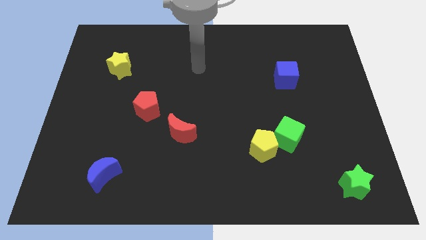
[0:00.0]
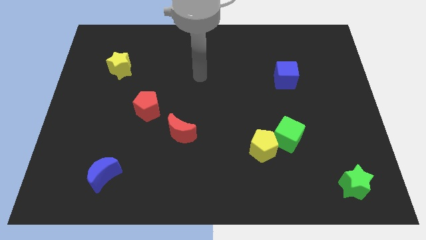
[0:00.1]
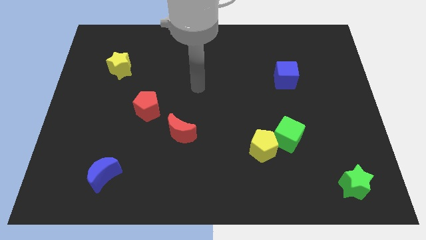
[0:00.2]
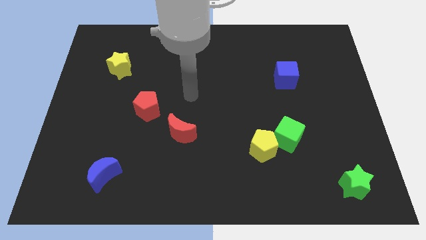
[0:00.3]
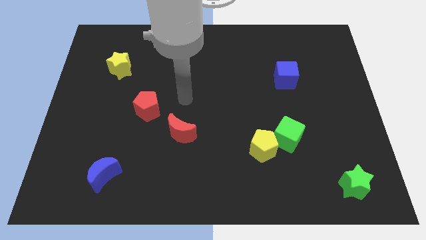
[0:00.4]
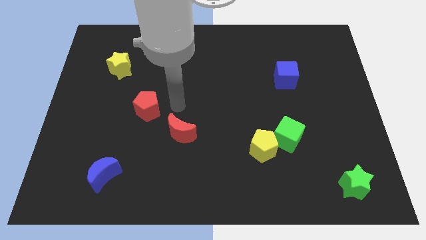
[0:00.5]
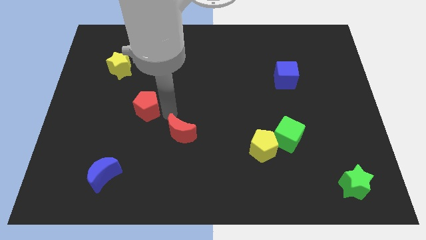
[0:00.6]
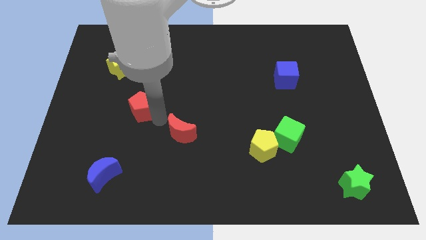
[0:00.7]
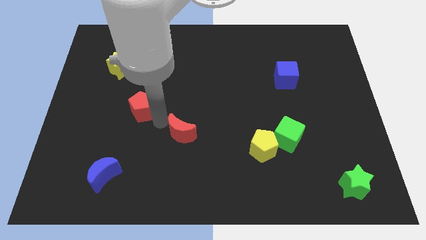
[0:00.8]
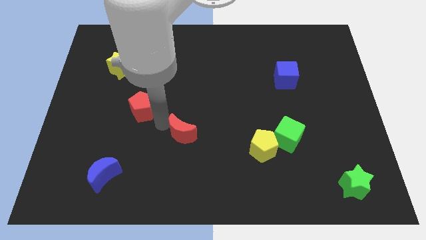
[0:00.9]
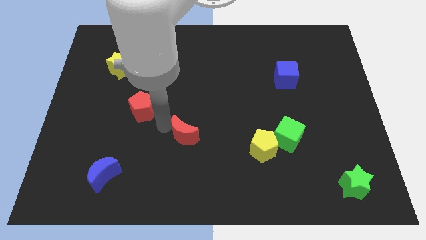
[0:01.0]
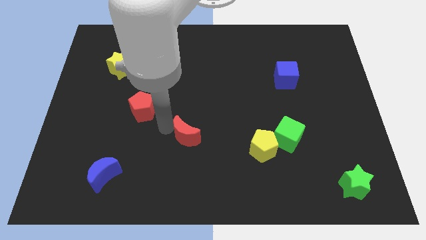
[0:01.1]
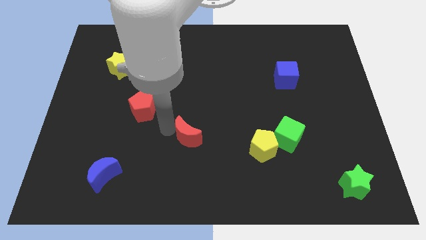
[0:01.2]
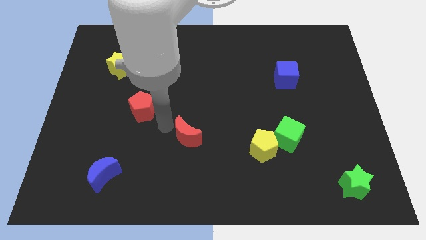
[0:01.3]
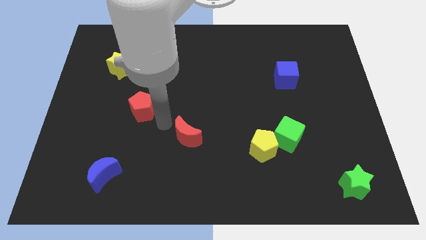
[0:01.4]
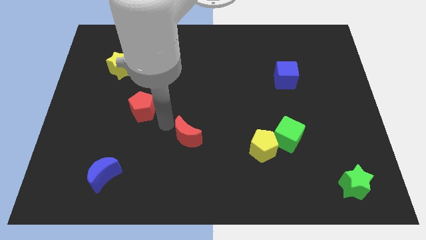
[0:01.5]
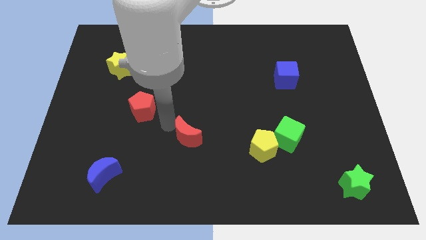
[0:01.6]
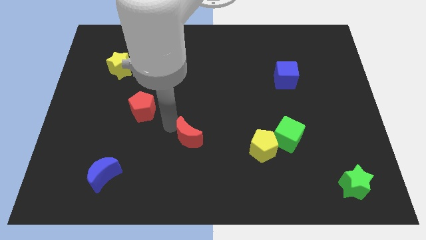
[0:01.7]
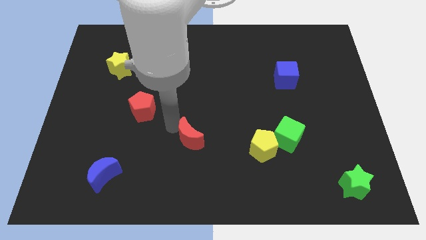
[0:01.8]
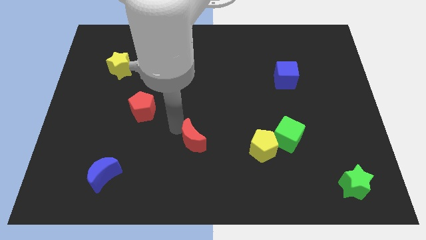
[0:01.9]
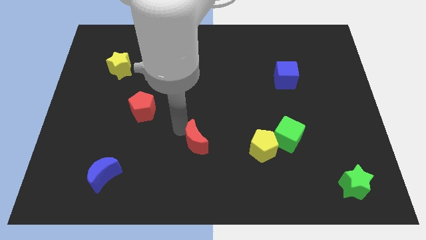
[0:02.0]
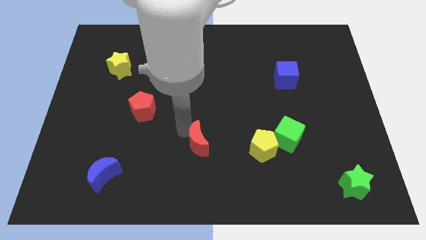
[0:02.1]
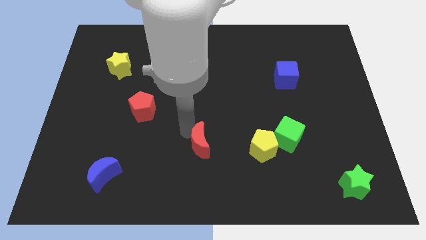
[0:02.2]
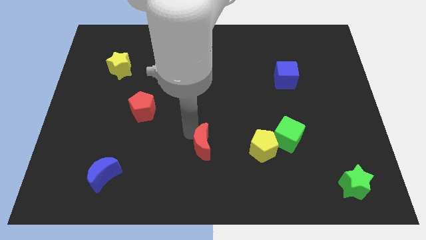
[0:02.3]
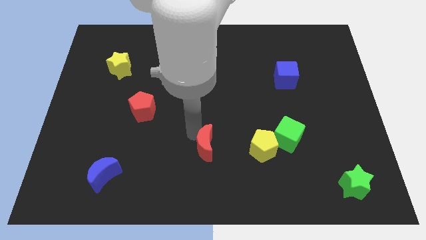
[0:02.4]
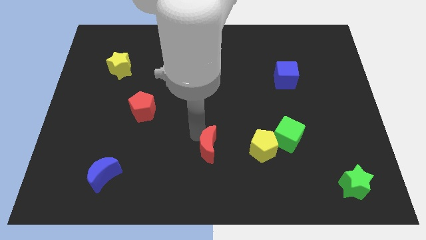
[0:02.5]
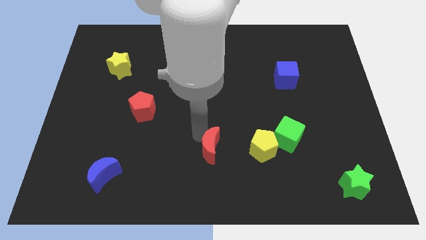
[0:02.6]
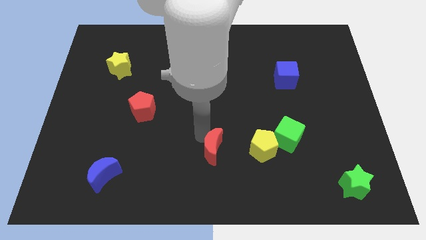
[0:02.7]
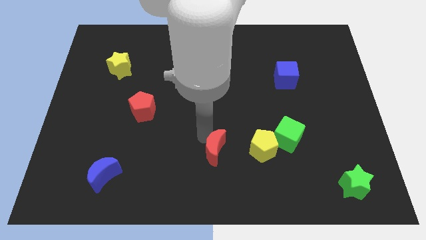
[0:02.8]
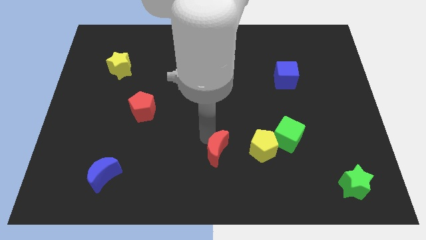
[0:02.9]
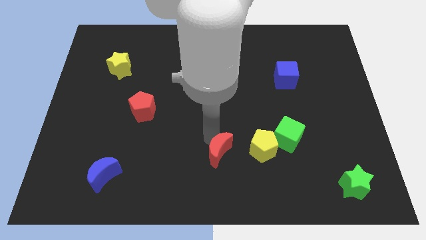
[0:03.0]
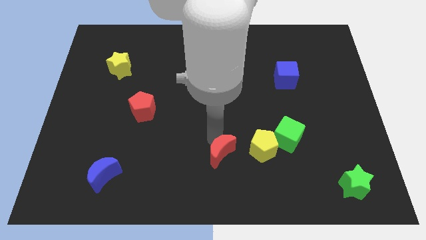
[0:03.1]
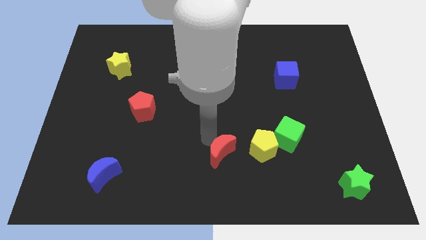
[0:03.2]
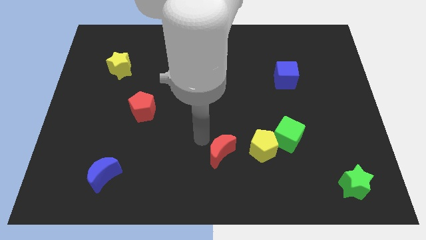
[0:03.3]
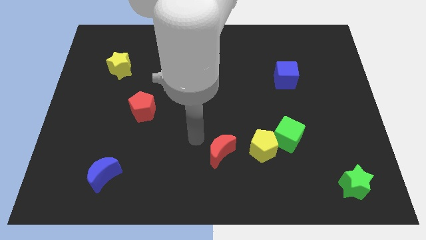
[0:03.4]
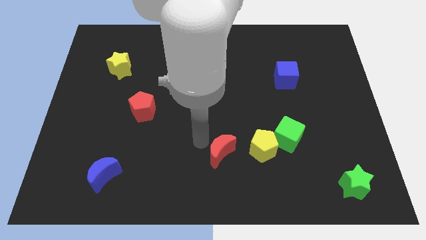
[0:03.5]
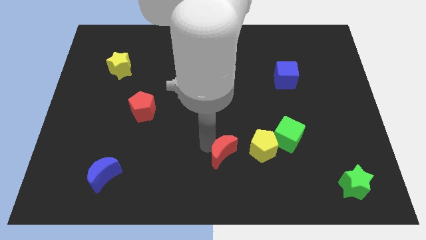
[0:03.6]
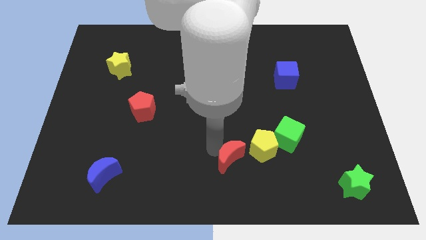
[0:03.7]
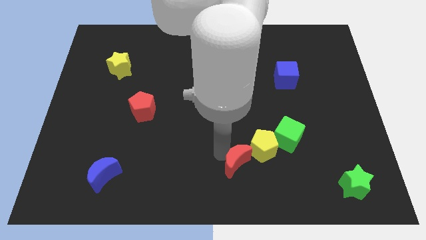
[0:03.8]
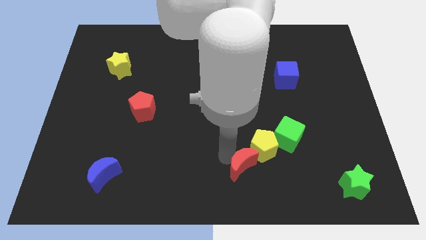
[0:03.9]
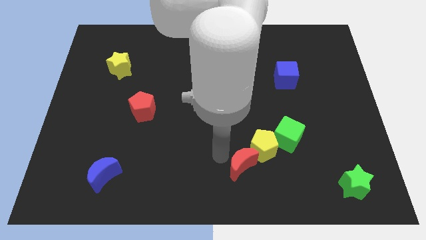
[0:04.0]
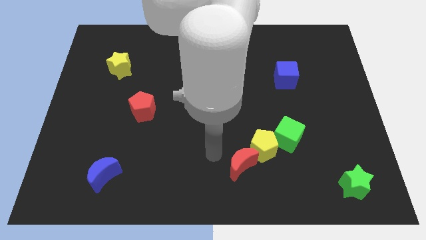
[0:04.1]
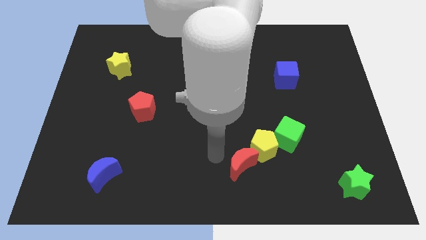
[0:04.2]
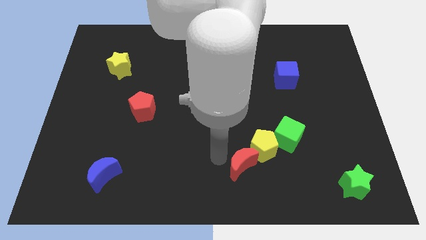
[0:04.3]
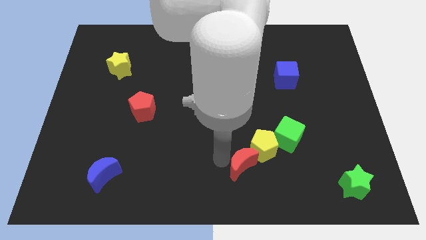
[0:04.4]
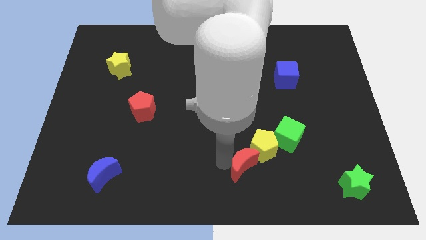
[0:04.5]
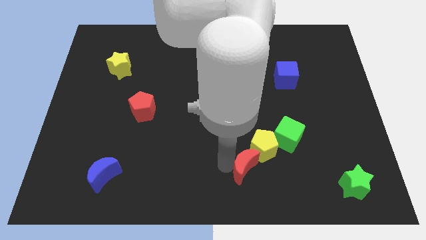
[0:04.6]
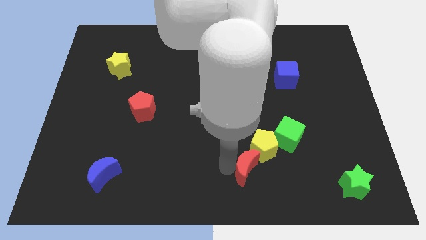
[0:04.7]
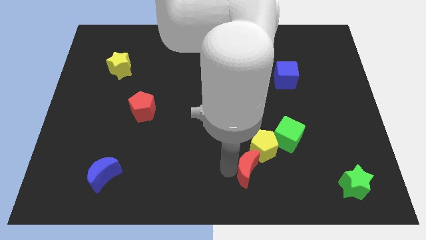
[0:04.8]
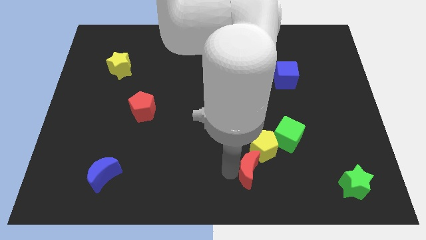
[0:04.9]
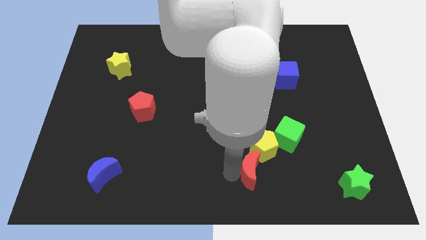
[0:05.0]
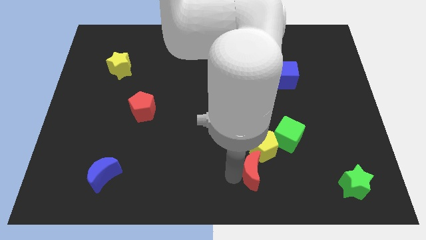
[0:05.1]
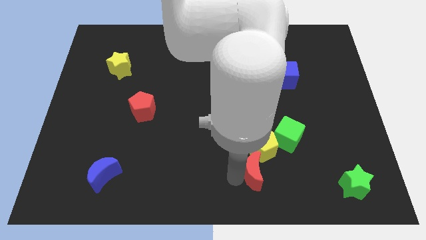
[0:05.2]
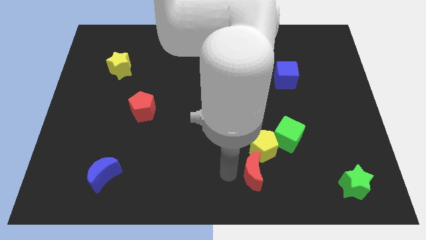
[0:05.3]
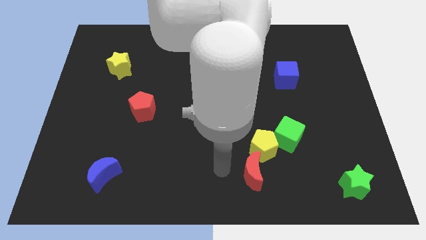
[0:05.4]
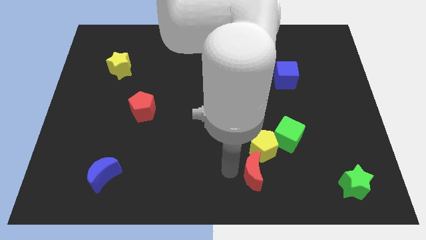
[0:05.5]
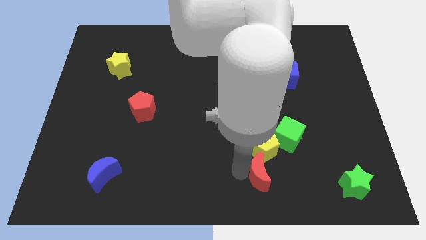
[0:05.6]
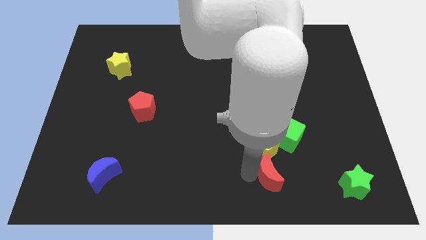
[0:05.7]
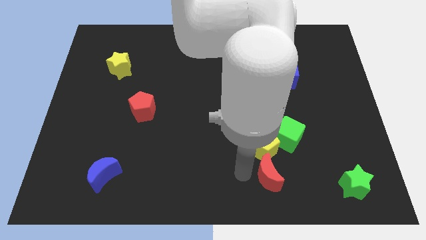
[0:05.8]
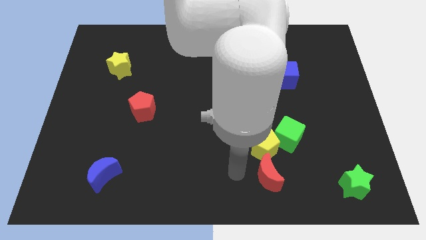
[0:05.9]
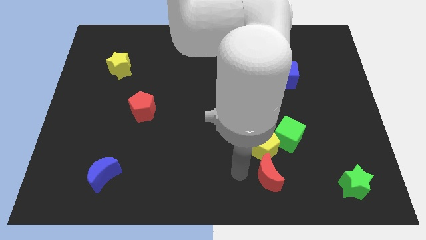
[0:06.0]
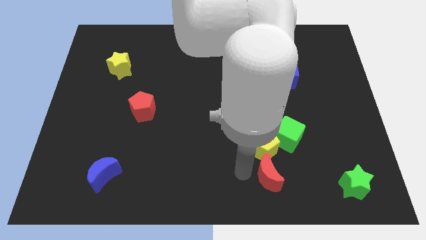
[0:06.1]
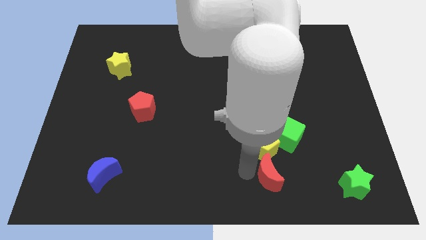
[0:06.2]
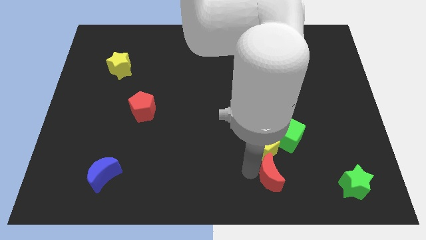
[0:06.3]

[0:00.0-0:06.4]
put the red moon to the bottom side of the green cube
